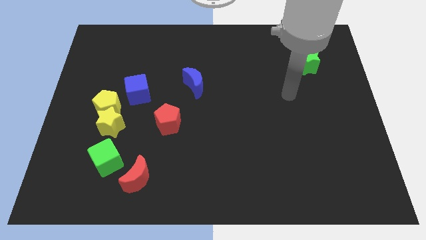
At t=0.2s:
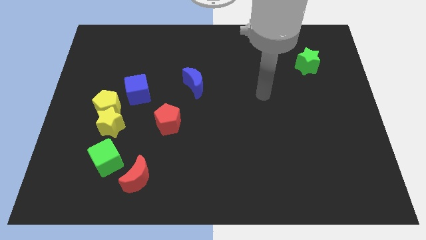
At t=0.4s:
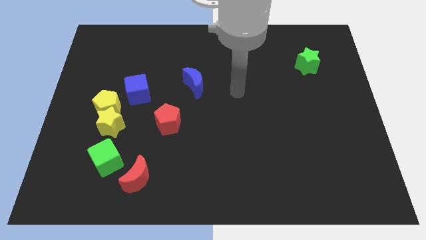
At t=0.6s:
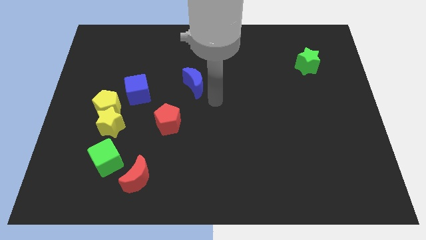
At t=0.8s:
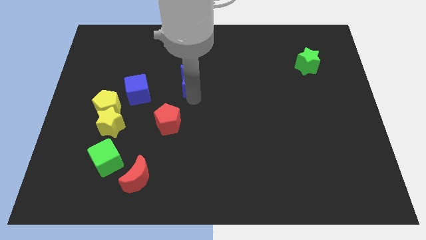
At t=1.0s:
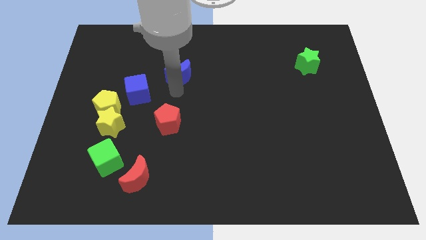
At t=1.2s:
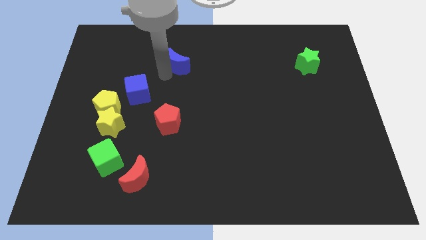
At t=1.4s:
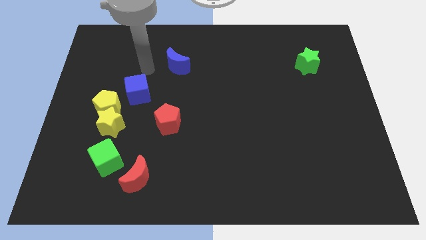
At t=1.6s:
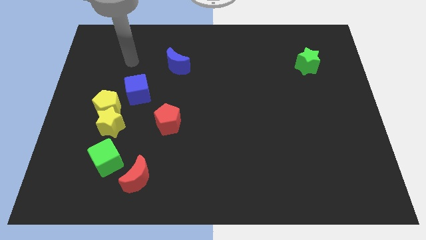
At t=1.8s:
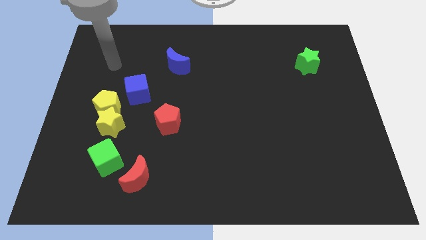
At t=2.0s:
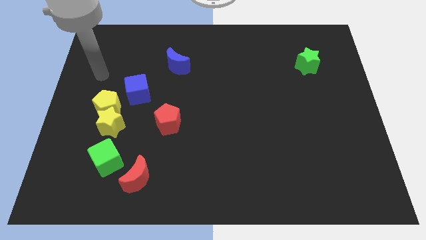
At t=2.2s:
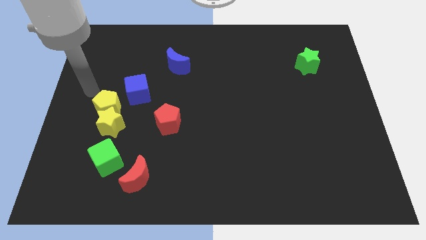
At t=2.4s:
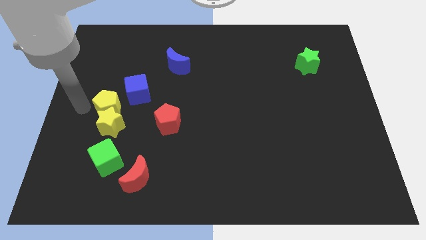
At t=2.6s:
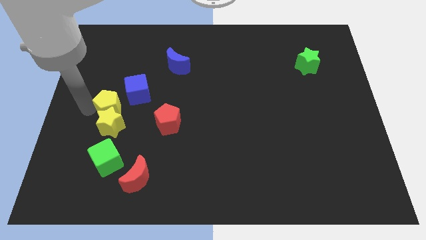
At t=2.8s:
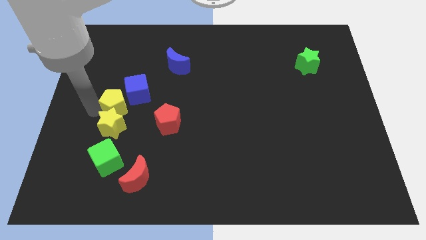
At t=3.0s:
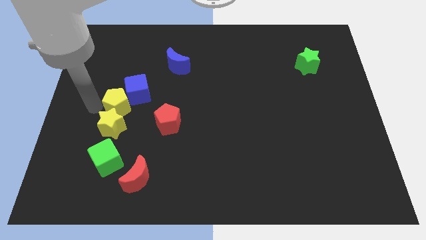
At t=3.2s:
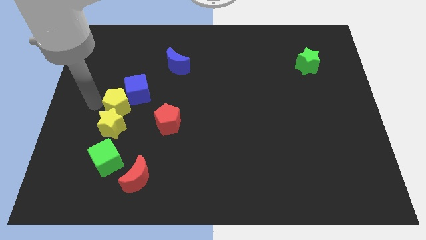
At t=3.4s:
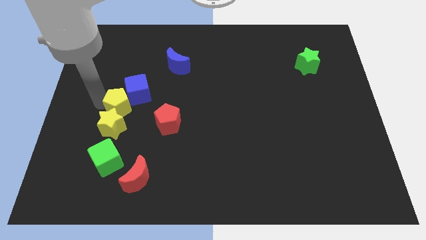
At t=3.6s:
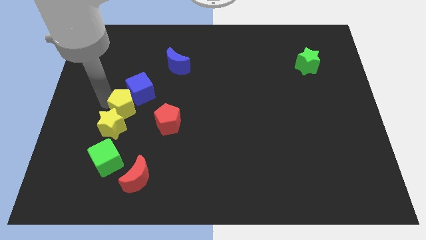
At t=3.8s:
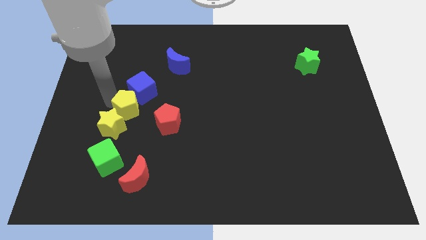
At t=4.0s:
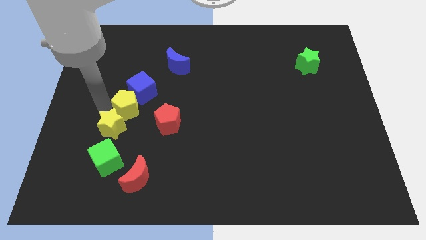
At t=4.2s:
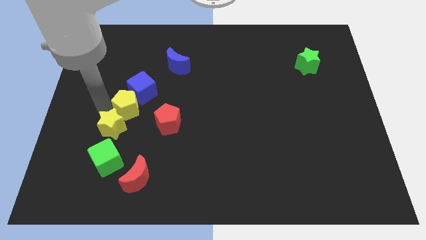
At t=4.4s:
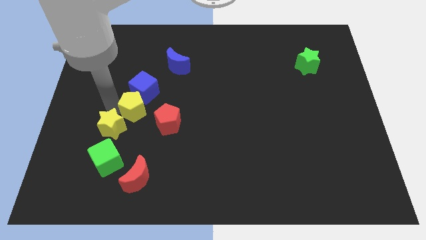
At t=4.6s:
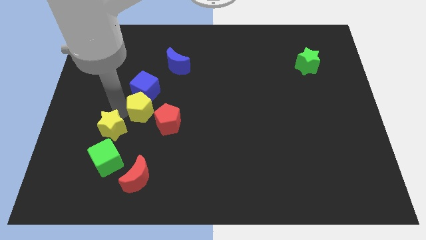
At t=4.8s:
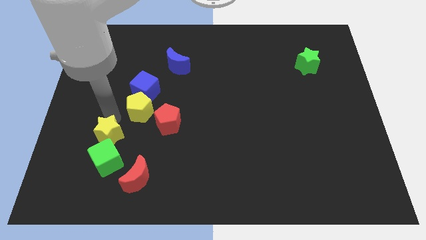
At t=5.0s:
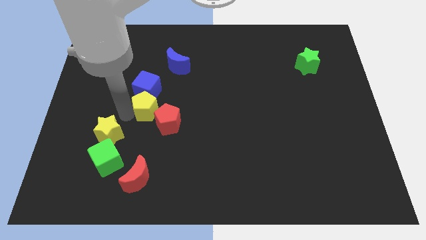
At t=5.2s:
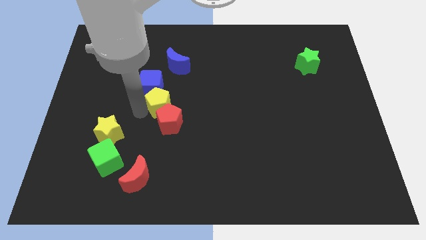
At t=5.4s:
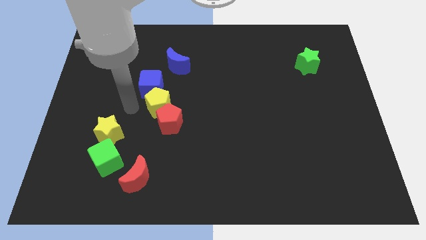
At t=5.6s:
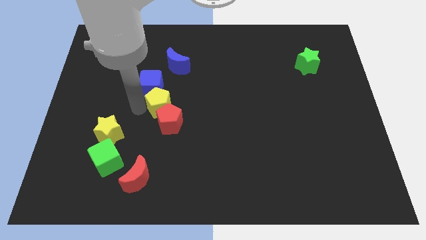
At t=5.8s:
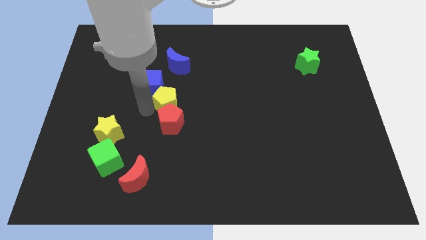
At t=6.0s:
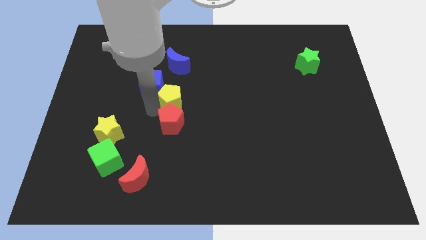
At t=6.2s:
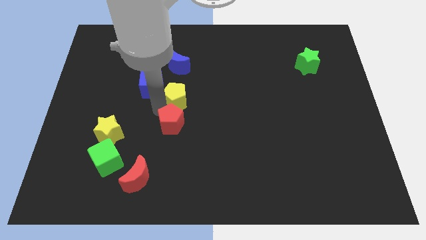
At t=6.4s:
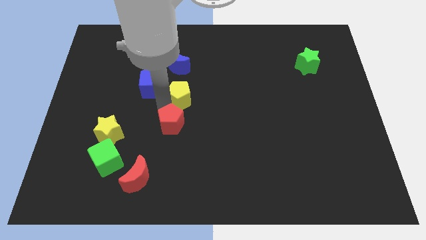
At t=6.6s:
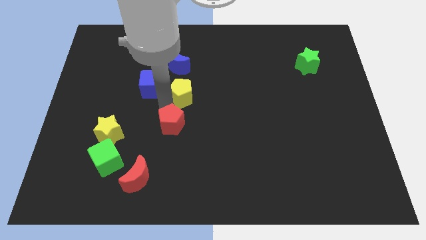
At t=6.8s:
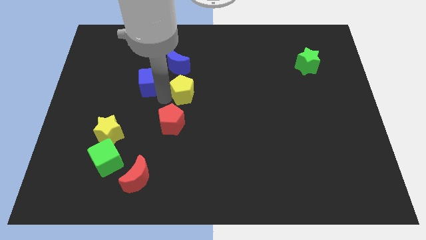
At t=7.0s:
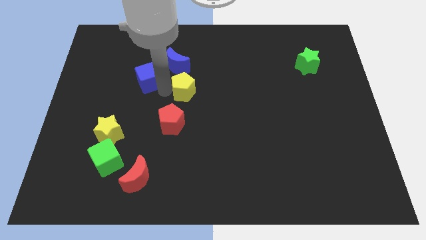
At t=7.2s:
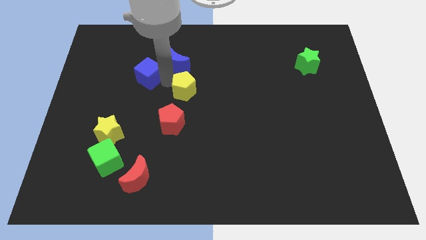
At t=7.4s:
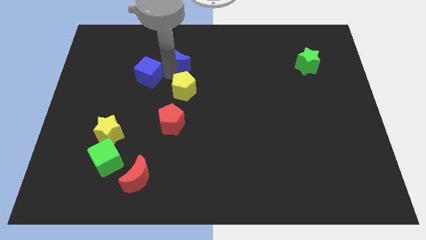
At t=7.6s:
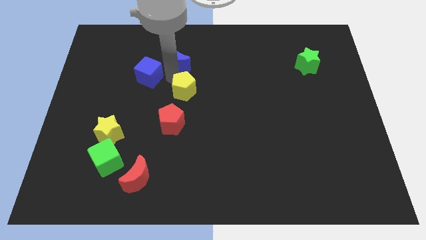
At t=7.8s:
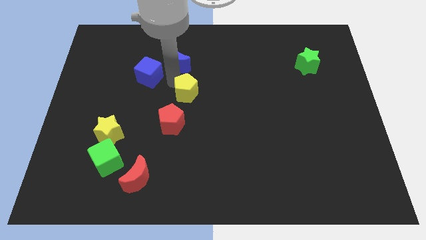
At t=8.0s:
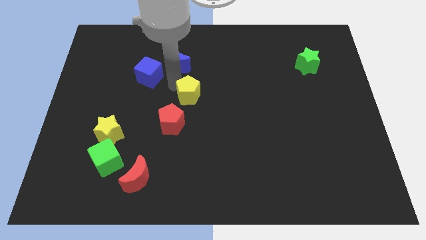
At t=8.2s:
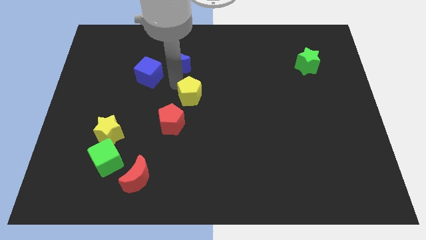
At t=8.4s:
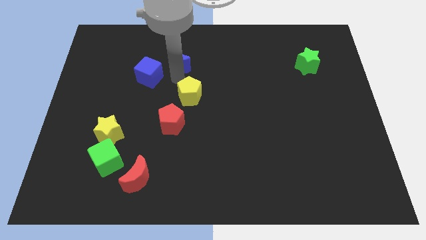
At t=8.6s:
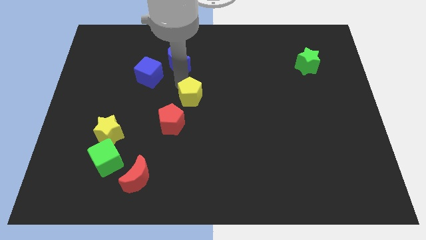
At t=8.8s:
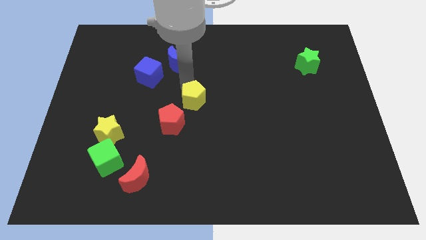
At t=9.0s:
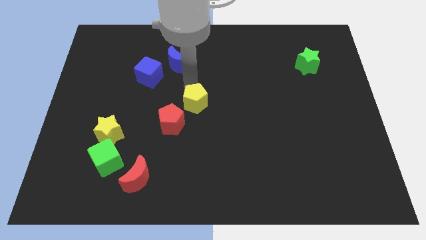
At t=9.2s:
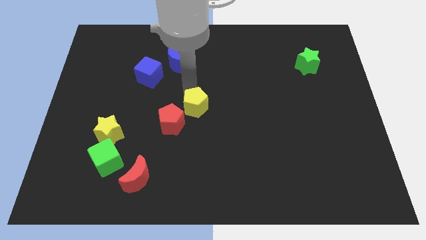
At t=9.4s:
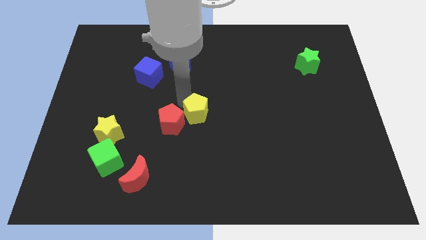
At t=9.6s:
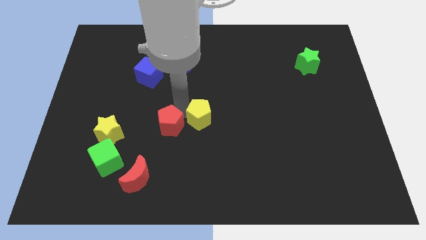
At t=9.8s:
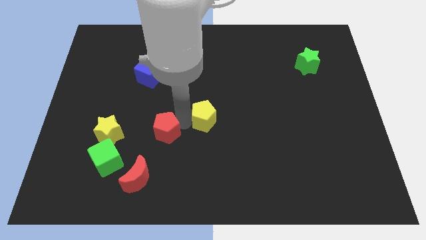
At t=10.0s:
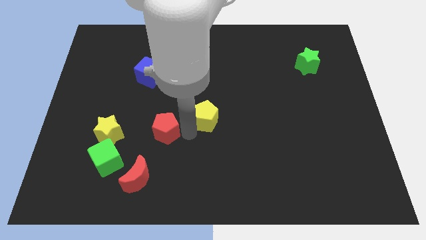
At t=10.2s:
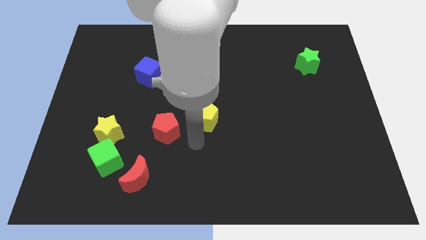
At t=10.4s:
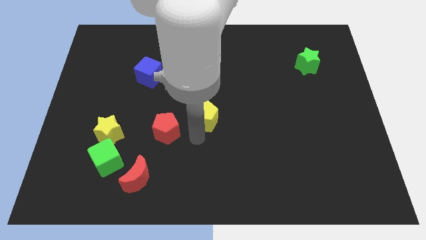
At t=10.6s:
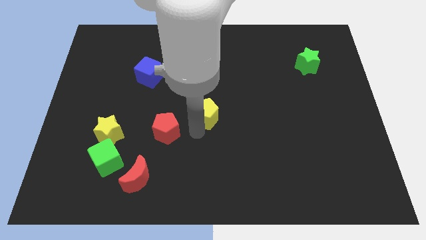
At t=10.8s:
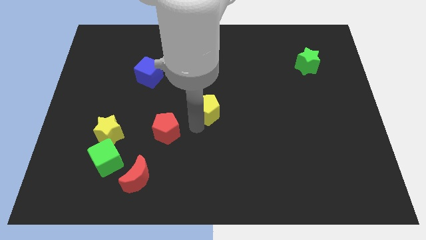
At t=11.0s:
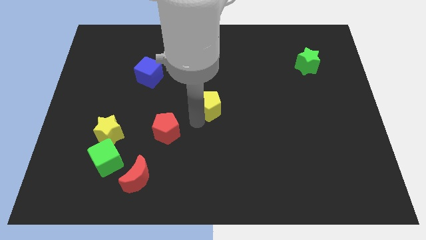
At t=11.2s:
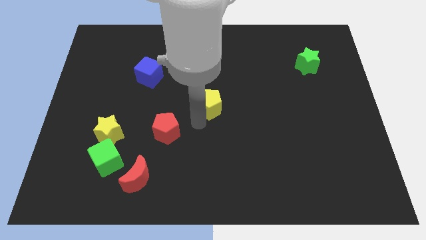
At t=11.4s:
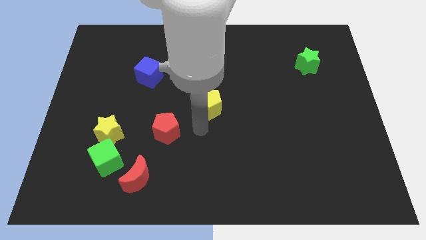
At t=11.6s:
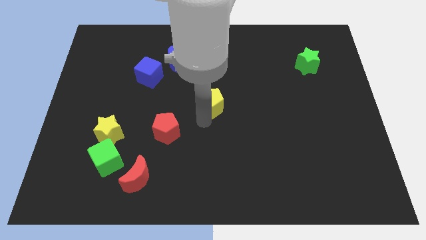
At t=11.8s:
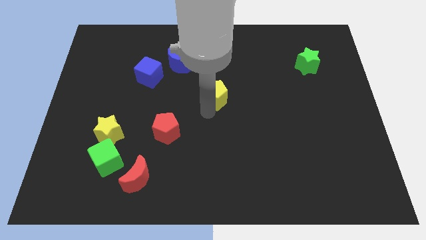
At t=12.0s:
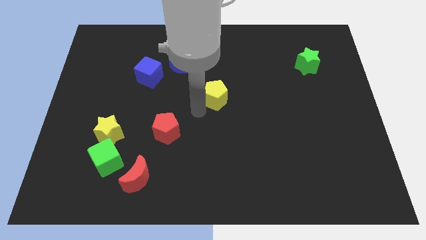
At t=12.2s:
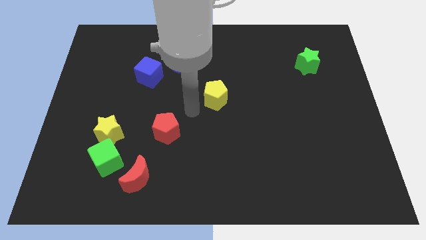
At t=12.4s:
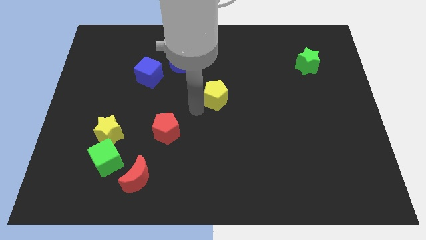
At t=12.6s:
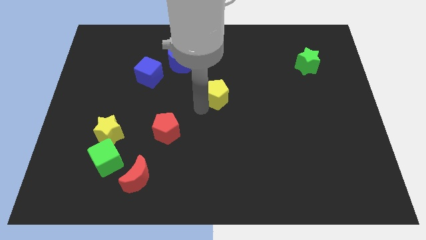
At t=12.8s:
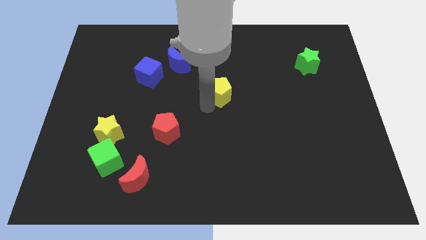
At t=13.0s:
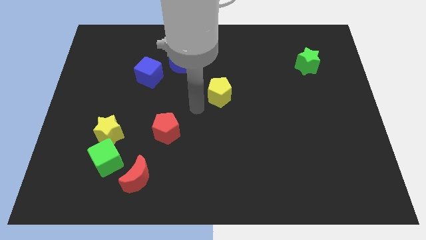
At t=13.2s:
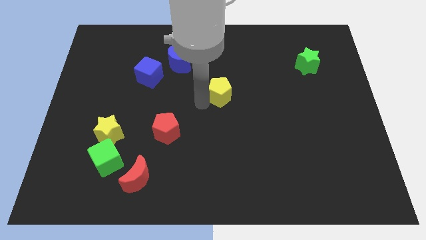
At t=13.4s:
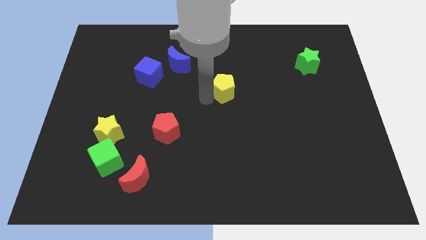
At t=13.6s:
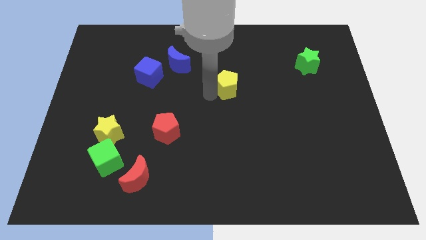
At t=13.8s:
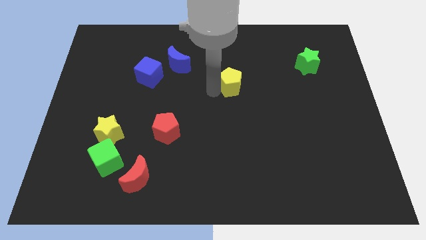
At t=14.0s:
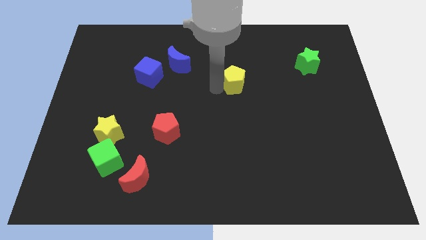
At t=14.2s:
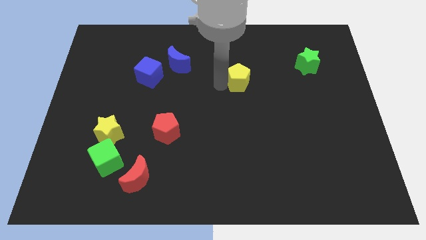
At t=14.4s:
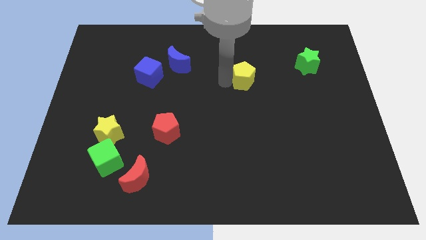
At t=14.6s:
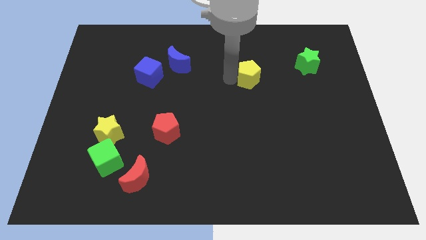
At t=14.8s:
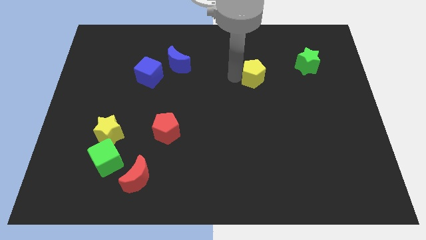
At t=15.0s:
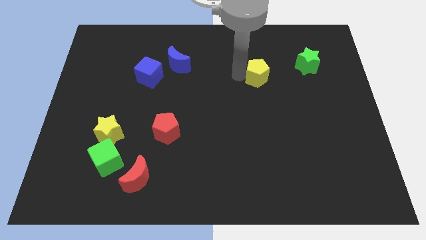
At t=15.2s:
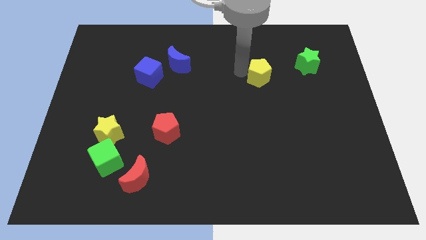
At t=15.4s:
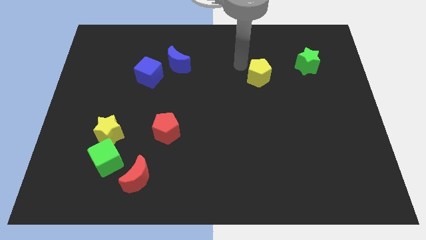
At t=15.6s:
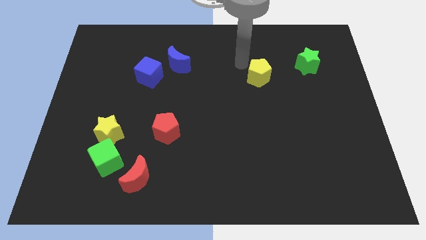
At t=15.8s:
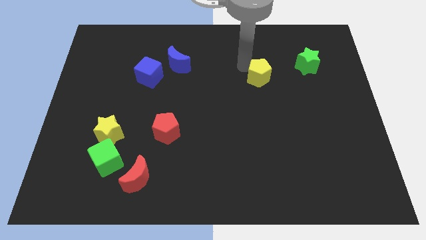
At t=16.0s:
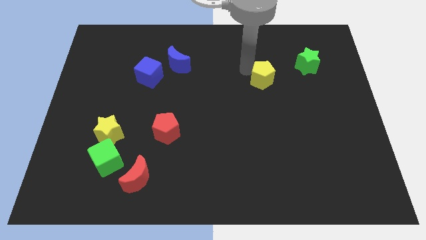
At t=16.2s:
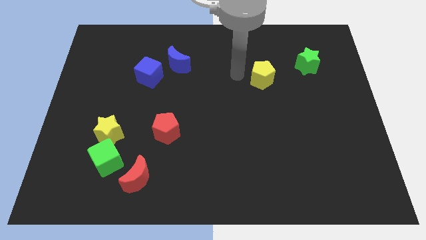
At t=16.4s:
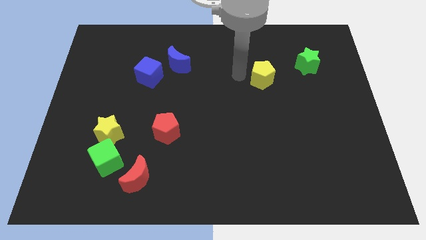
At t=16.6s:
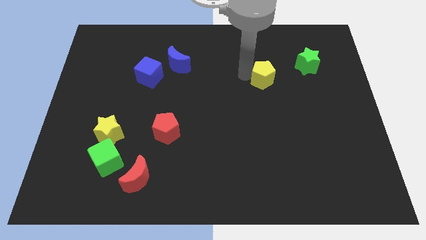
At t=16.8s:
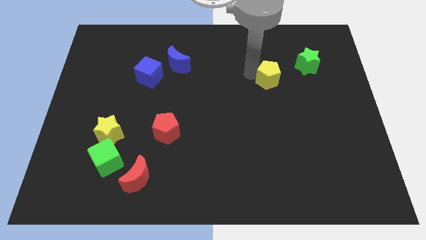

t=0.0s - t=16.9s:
slide the yellow pentagon to the bottom left side of the green star
